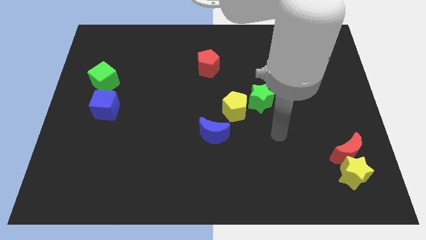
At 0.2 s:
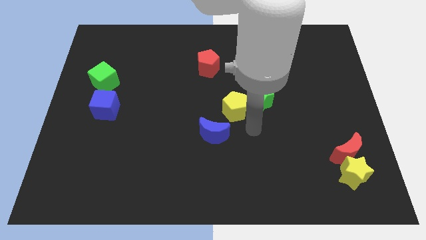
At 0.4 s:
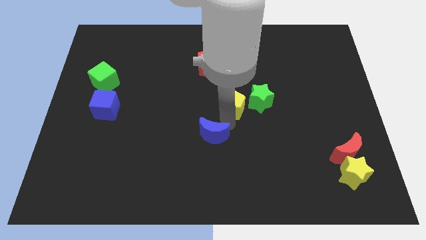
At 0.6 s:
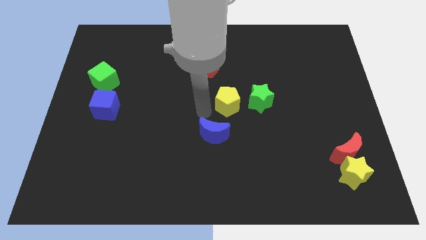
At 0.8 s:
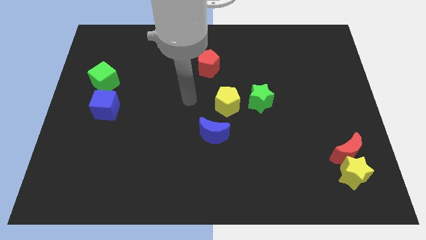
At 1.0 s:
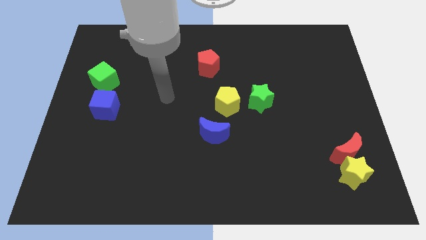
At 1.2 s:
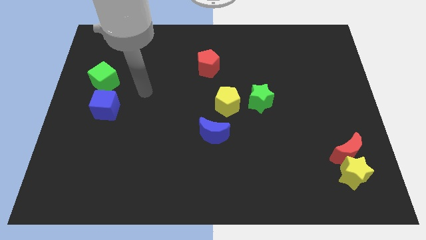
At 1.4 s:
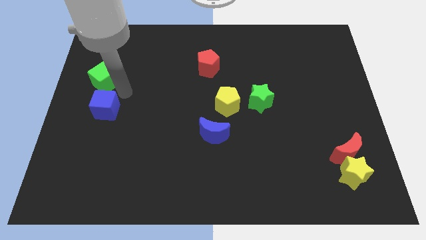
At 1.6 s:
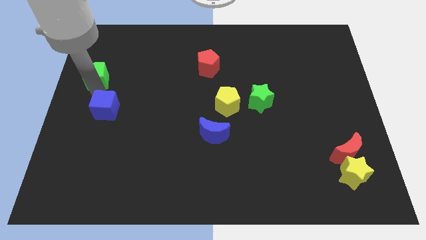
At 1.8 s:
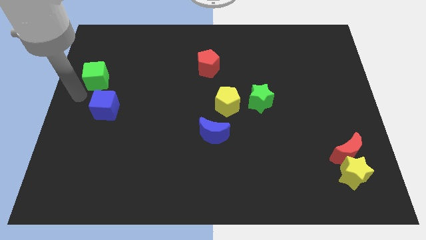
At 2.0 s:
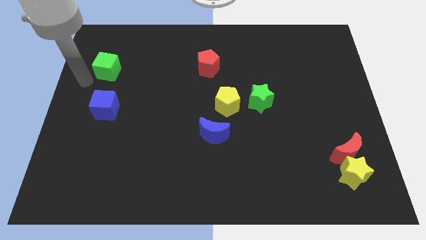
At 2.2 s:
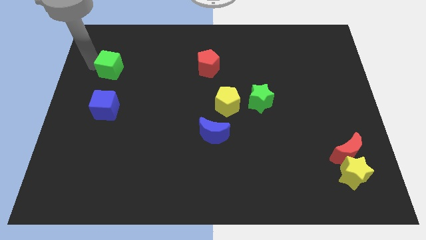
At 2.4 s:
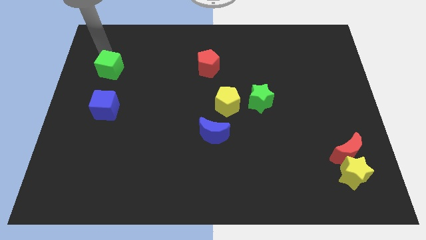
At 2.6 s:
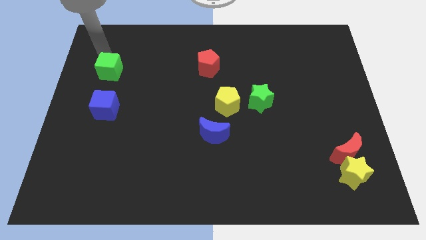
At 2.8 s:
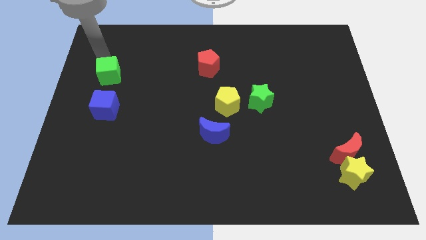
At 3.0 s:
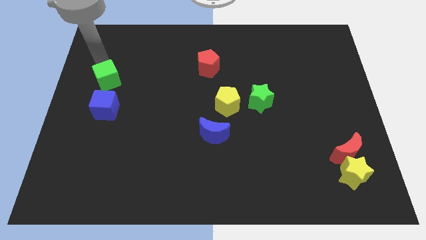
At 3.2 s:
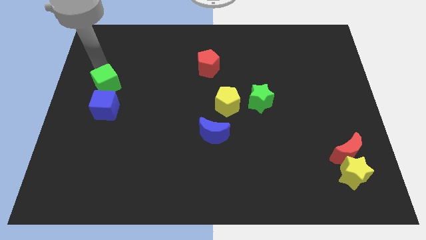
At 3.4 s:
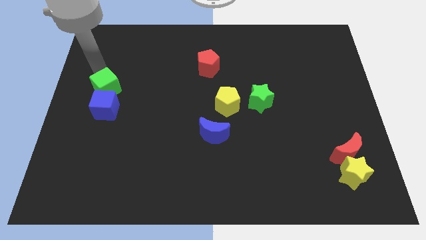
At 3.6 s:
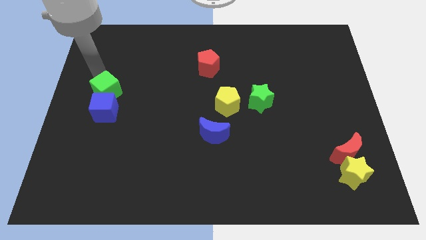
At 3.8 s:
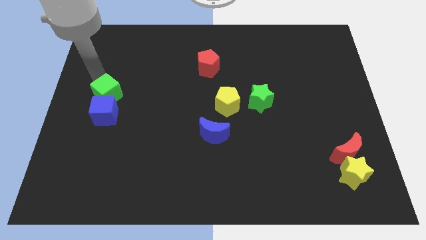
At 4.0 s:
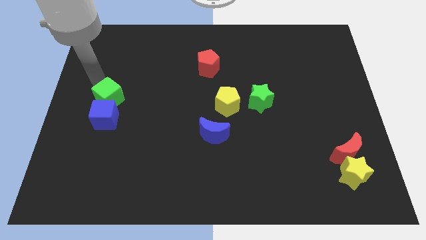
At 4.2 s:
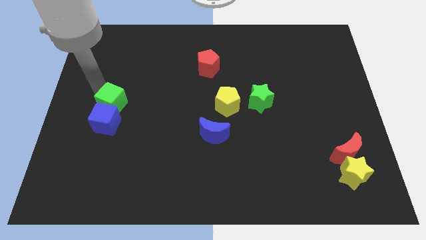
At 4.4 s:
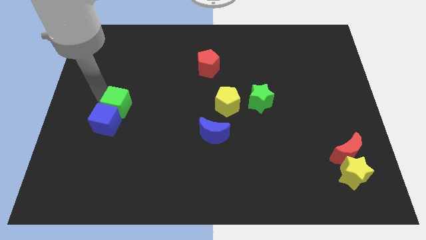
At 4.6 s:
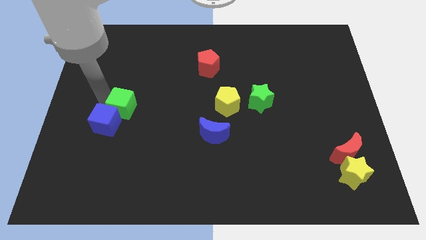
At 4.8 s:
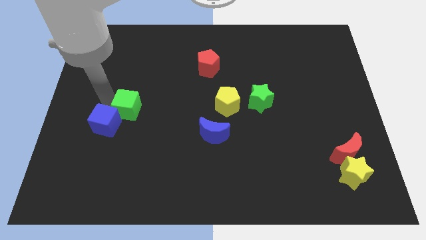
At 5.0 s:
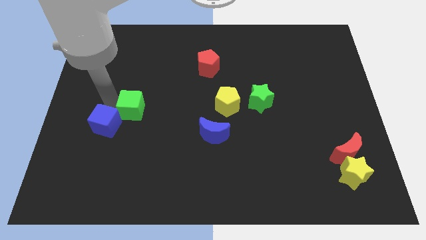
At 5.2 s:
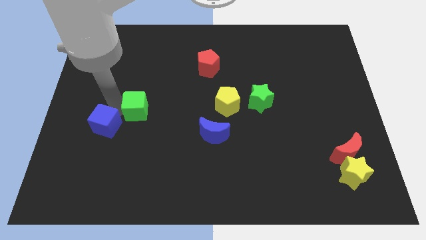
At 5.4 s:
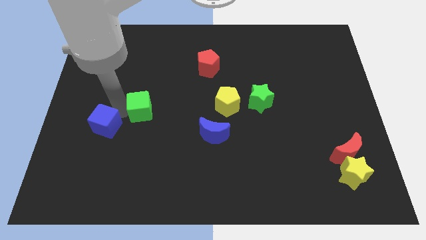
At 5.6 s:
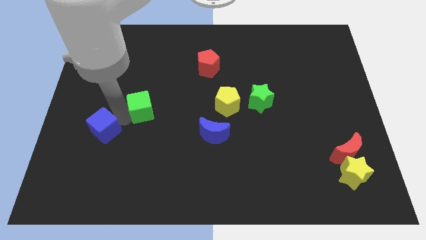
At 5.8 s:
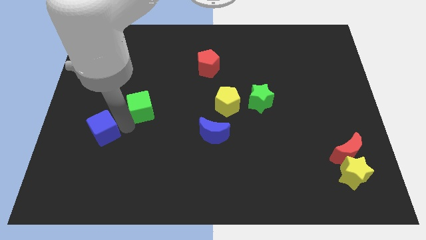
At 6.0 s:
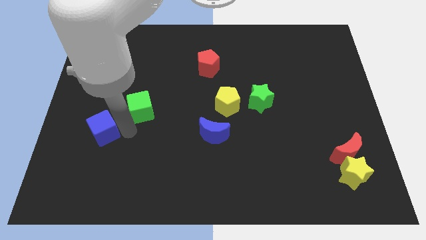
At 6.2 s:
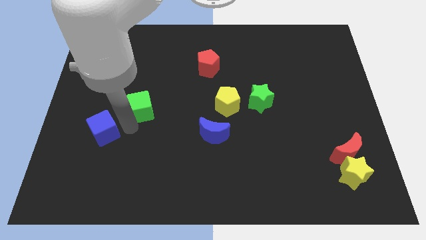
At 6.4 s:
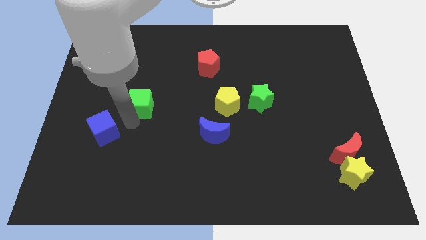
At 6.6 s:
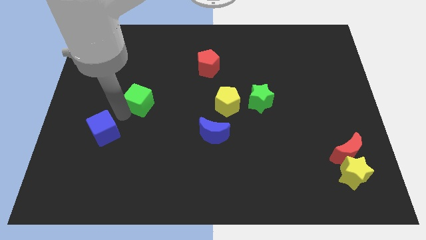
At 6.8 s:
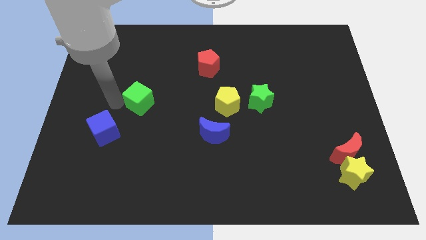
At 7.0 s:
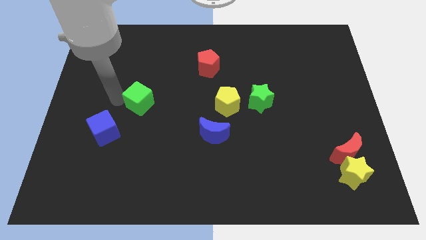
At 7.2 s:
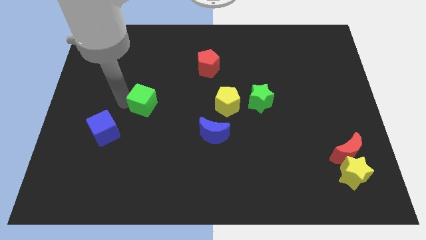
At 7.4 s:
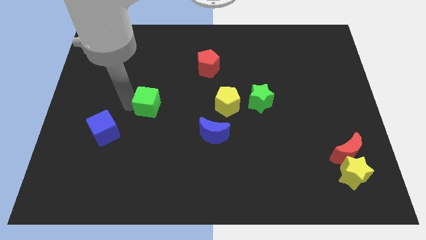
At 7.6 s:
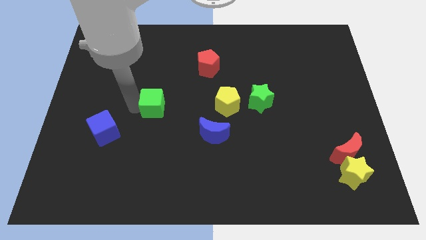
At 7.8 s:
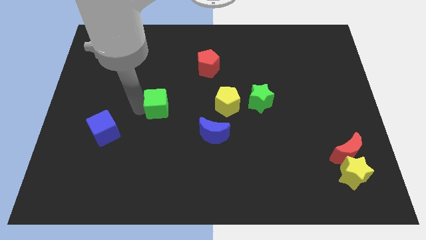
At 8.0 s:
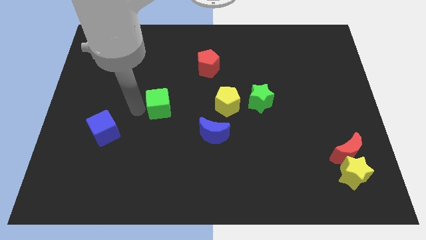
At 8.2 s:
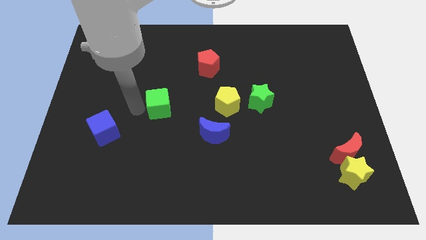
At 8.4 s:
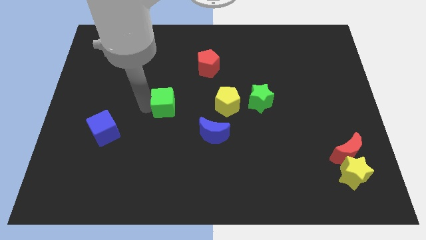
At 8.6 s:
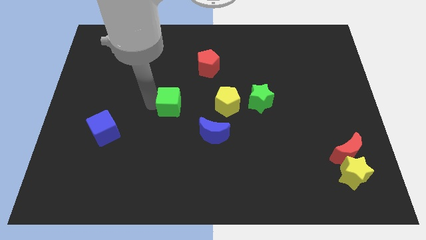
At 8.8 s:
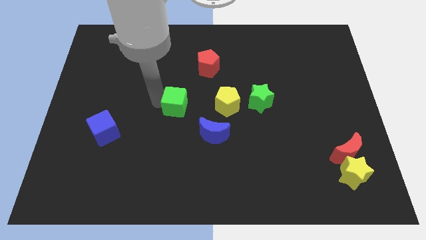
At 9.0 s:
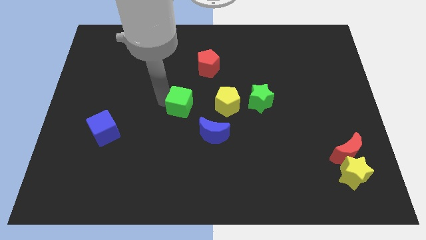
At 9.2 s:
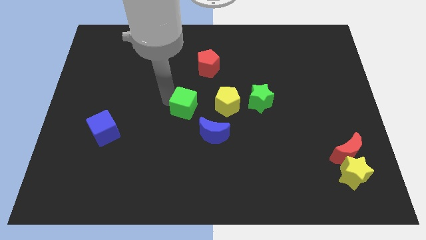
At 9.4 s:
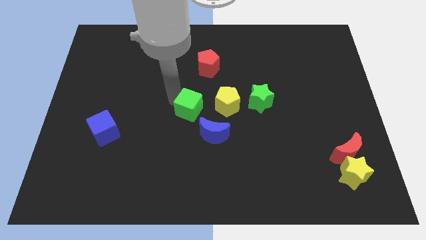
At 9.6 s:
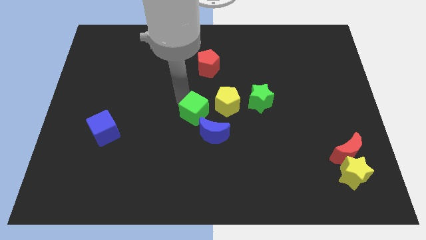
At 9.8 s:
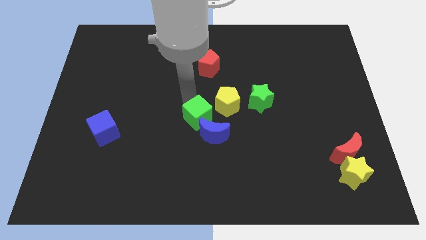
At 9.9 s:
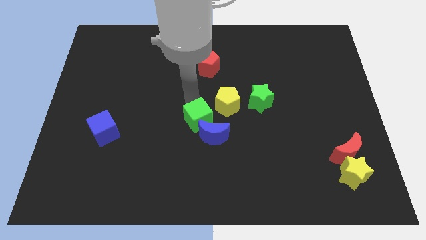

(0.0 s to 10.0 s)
move the green cube close to the blue moon

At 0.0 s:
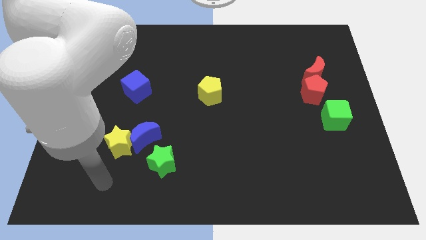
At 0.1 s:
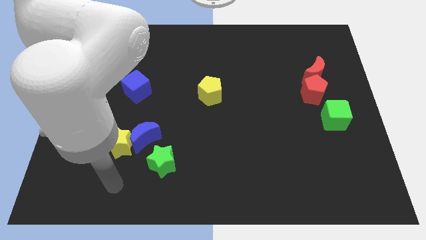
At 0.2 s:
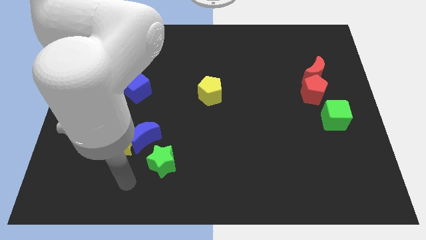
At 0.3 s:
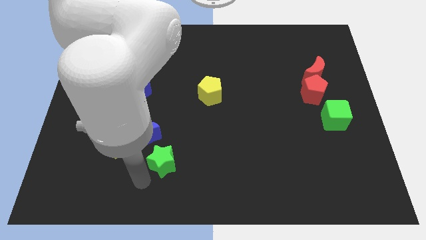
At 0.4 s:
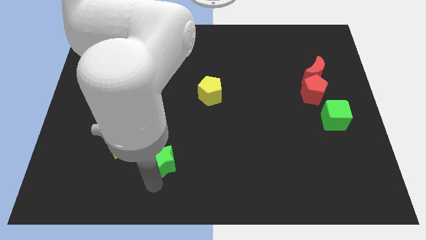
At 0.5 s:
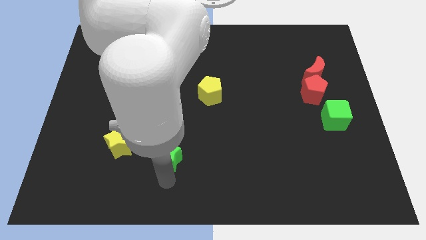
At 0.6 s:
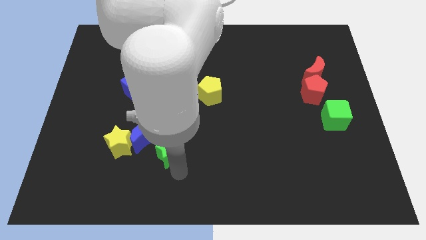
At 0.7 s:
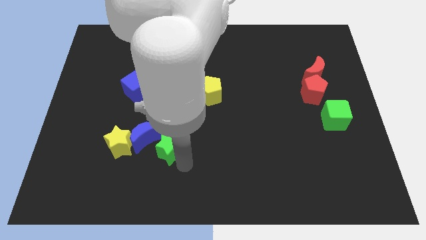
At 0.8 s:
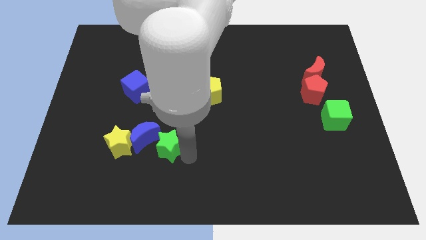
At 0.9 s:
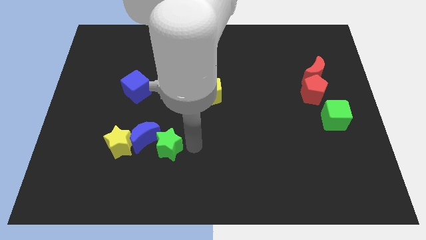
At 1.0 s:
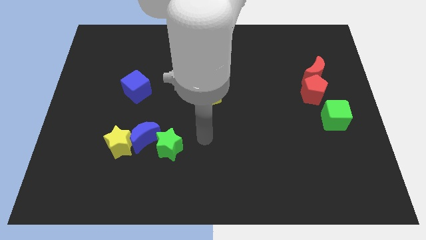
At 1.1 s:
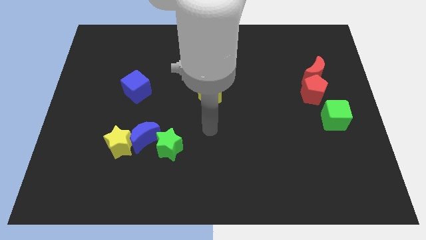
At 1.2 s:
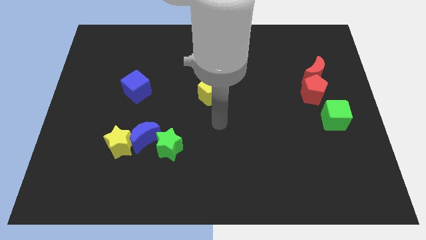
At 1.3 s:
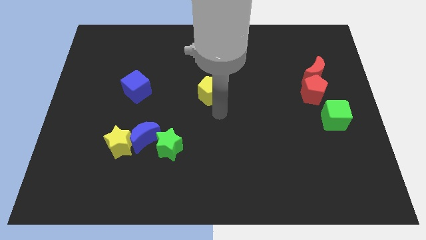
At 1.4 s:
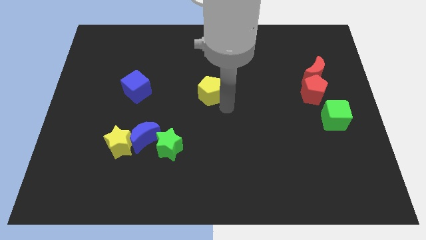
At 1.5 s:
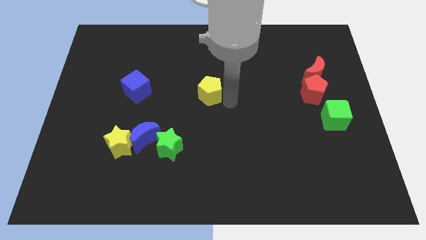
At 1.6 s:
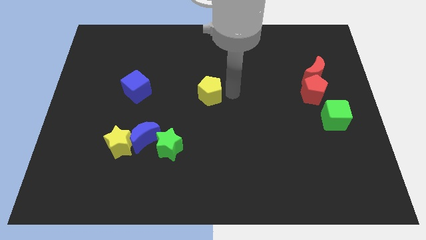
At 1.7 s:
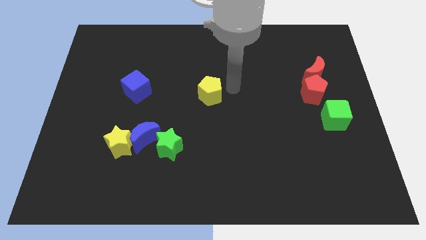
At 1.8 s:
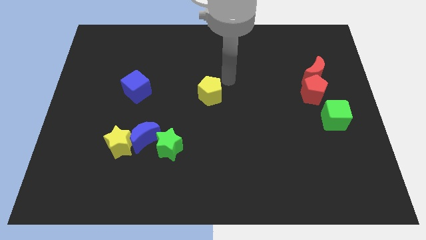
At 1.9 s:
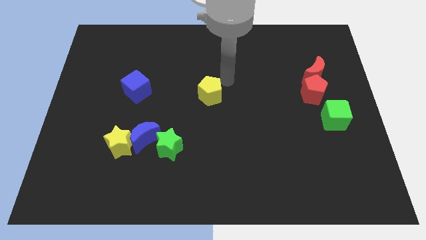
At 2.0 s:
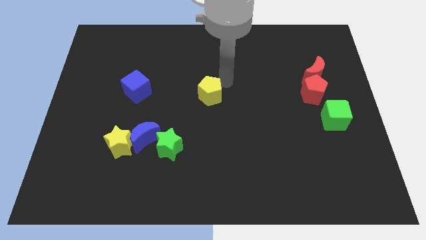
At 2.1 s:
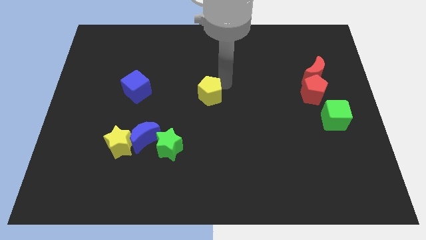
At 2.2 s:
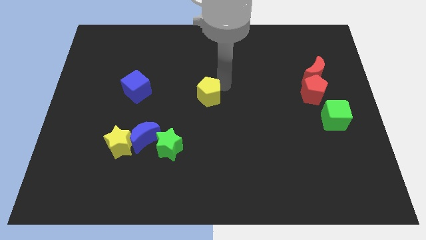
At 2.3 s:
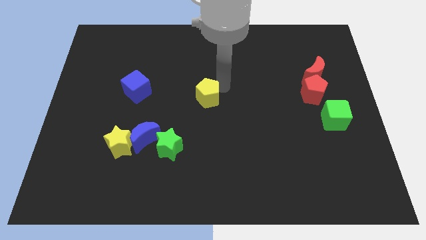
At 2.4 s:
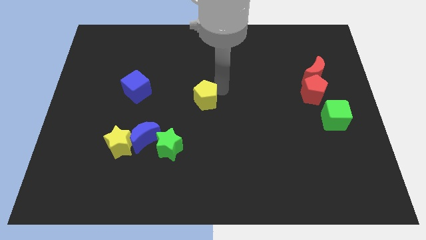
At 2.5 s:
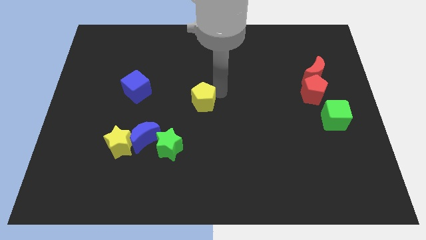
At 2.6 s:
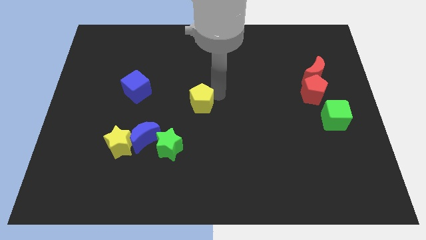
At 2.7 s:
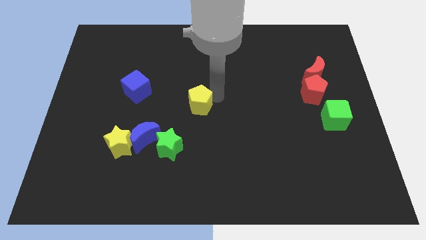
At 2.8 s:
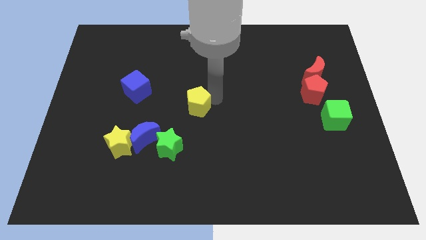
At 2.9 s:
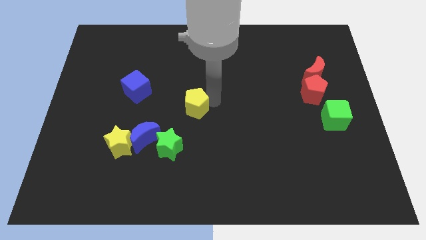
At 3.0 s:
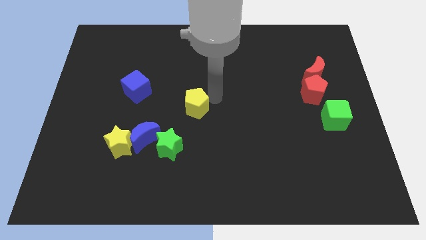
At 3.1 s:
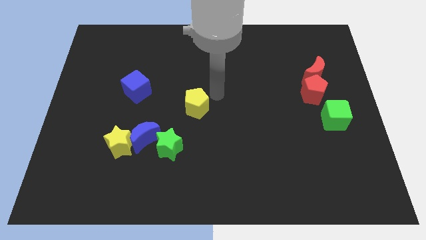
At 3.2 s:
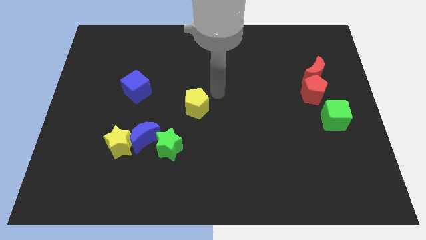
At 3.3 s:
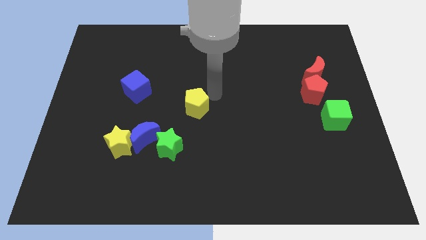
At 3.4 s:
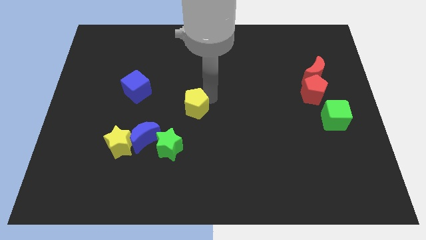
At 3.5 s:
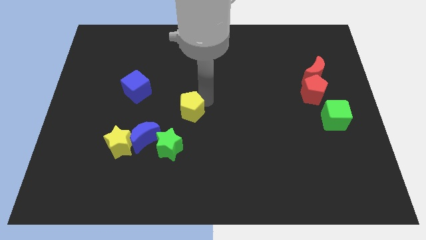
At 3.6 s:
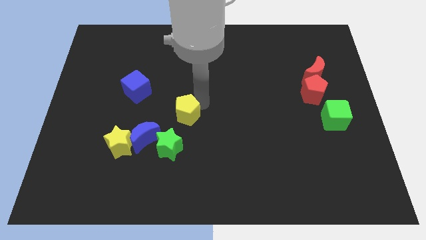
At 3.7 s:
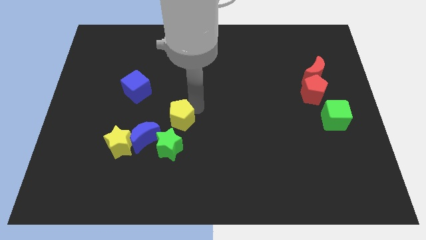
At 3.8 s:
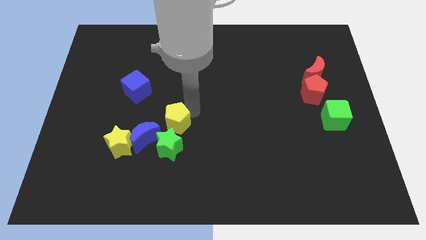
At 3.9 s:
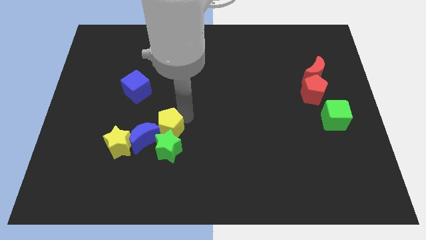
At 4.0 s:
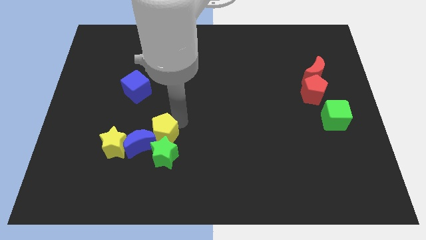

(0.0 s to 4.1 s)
slide the yellow pentagon next to the blue moon
